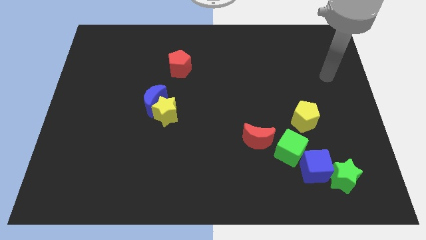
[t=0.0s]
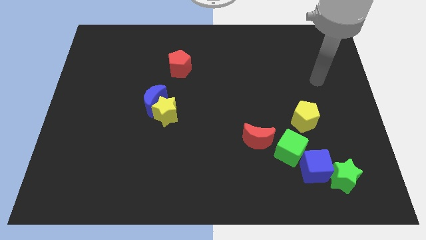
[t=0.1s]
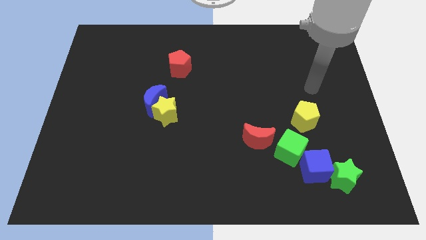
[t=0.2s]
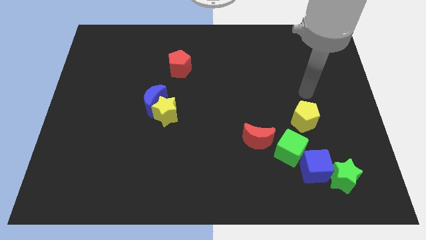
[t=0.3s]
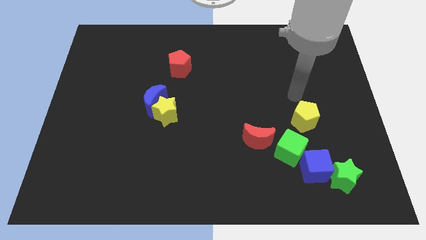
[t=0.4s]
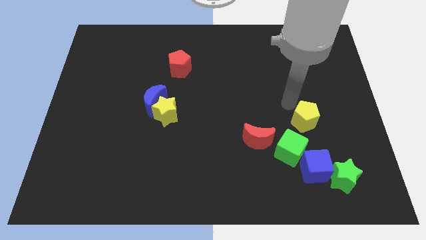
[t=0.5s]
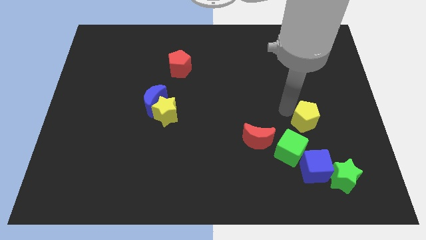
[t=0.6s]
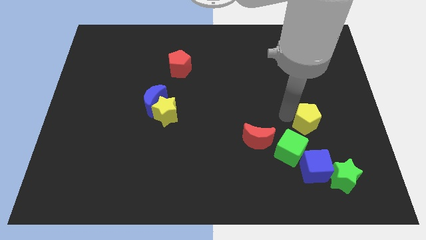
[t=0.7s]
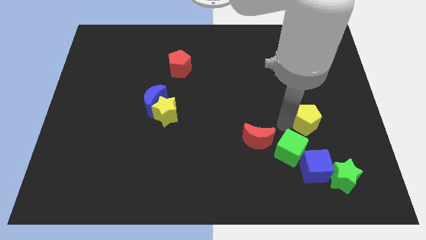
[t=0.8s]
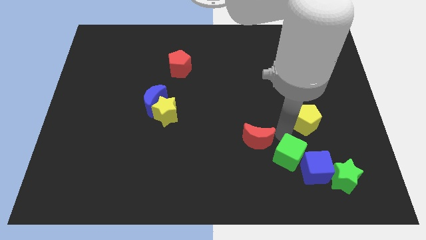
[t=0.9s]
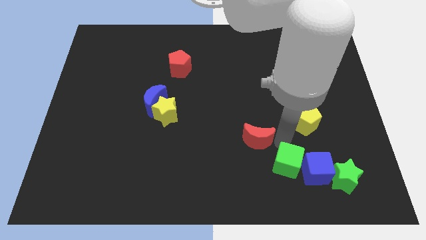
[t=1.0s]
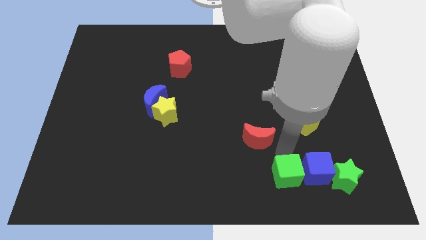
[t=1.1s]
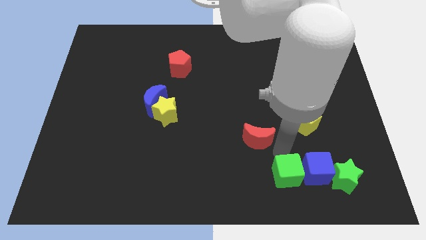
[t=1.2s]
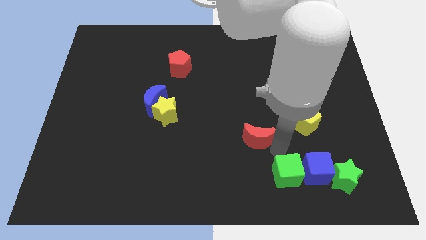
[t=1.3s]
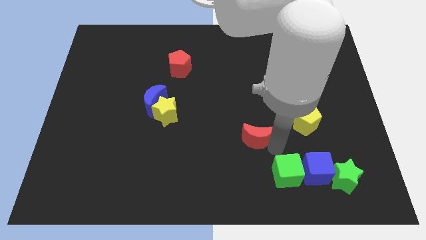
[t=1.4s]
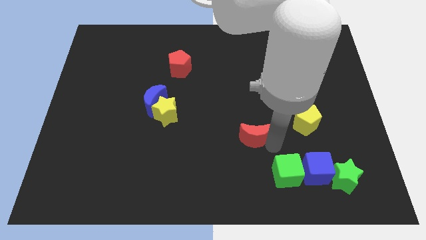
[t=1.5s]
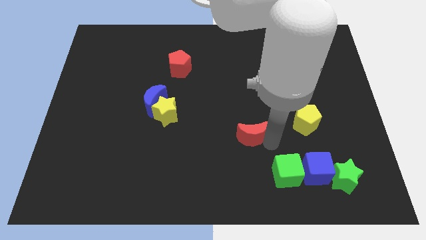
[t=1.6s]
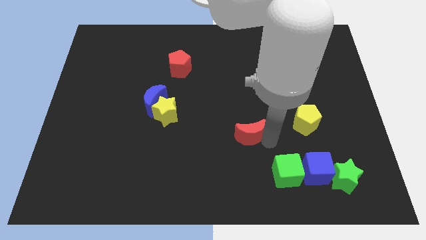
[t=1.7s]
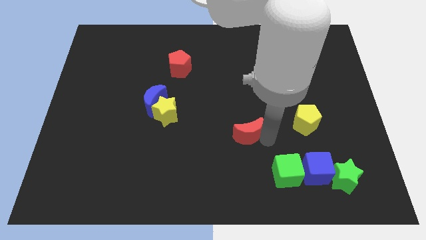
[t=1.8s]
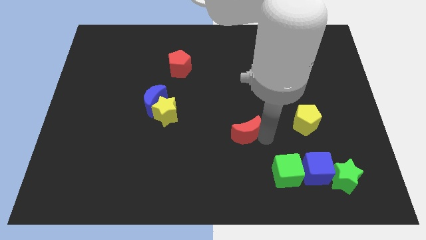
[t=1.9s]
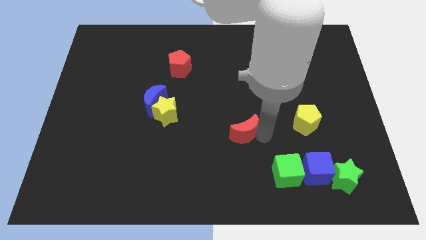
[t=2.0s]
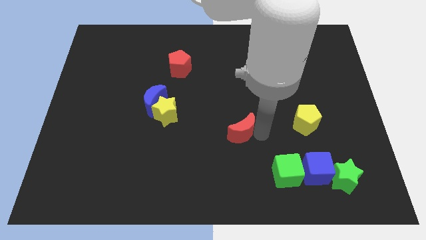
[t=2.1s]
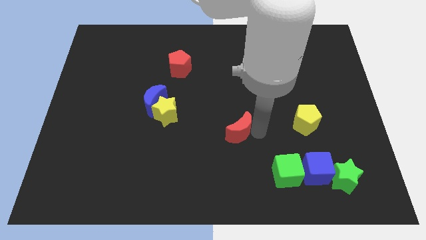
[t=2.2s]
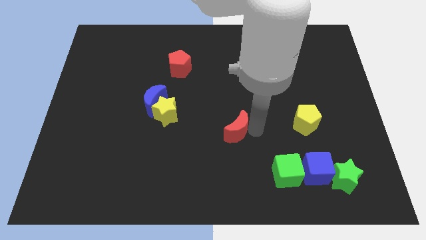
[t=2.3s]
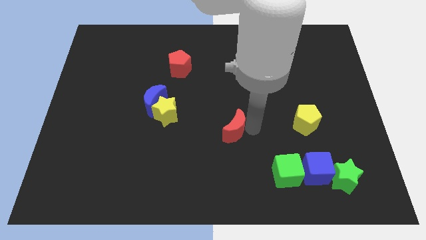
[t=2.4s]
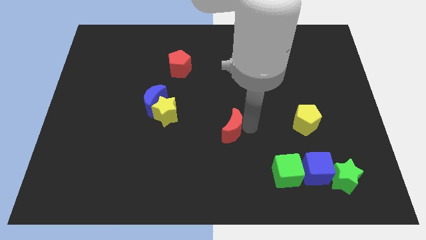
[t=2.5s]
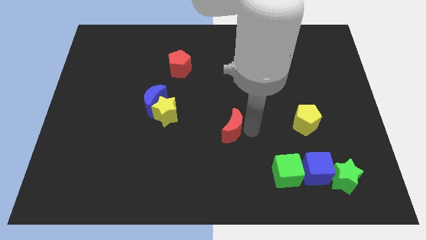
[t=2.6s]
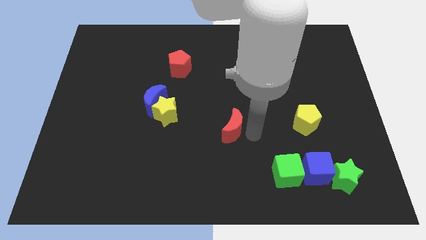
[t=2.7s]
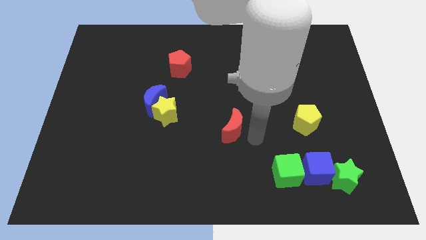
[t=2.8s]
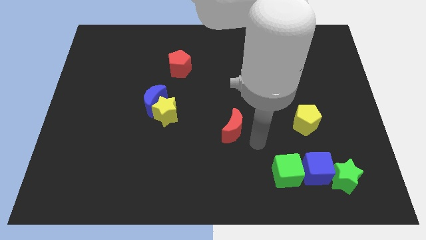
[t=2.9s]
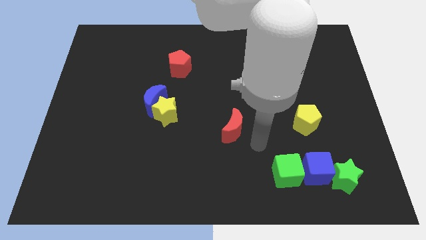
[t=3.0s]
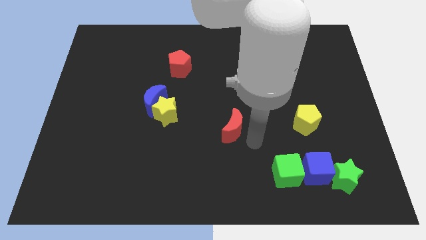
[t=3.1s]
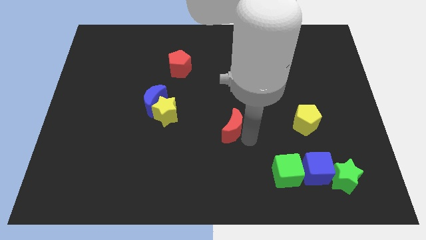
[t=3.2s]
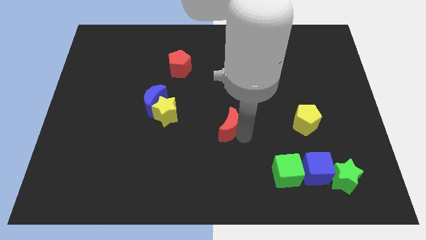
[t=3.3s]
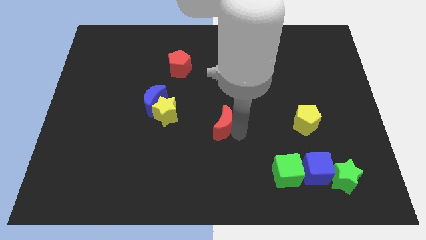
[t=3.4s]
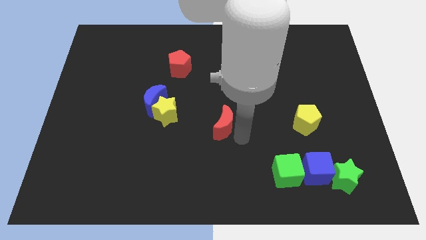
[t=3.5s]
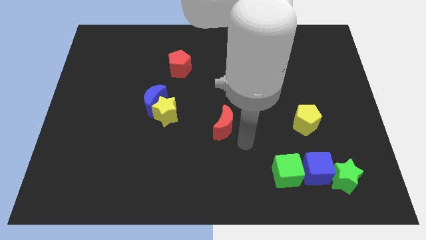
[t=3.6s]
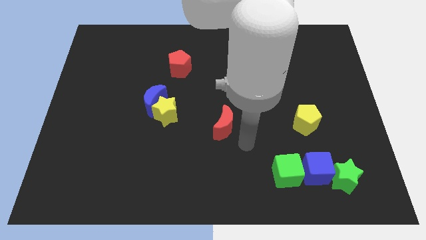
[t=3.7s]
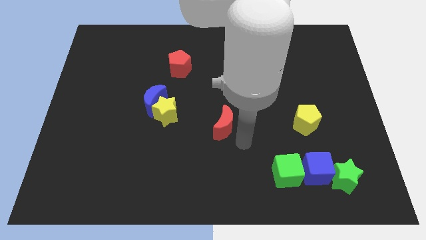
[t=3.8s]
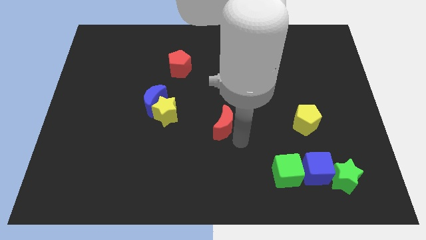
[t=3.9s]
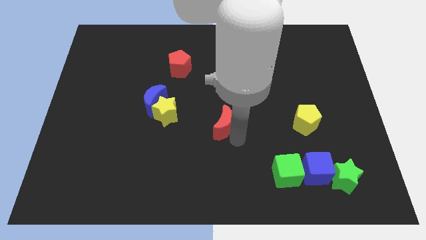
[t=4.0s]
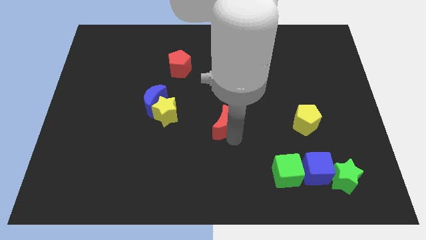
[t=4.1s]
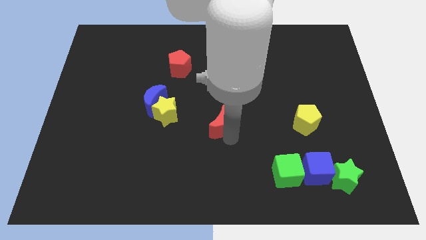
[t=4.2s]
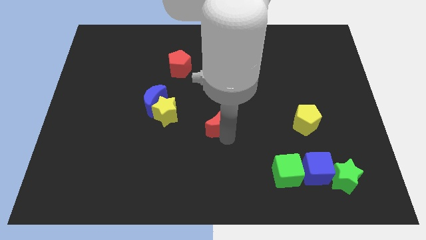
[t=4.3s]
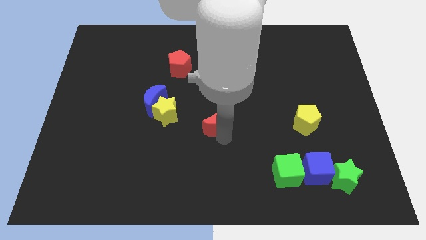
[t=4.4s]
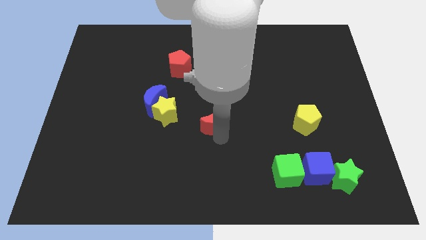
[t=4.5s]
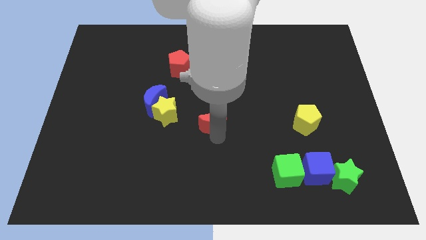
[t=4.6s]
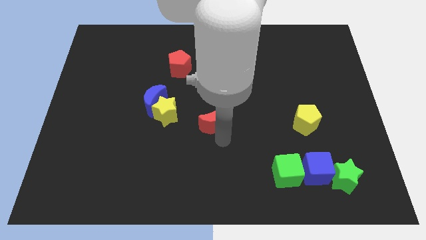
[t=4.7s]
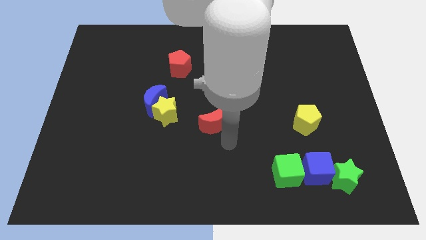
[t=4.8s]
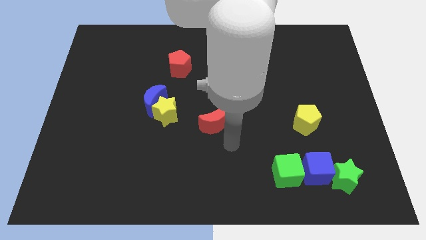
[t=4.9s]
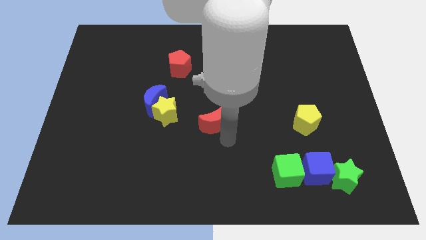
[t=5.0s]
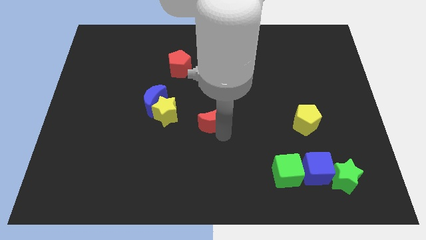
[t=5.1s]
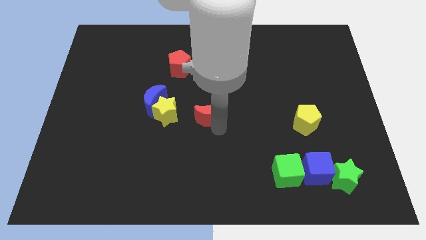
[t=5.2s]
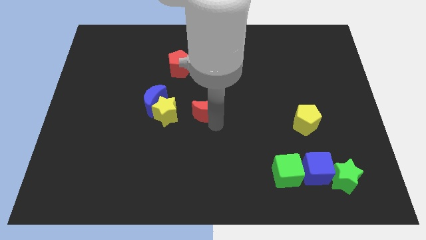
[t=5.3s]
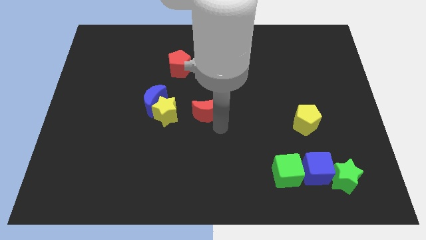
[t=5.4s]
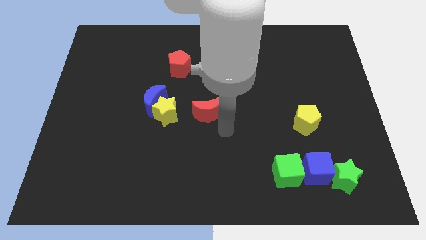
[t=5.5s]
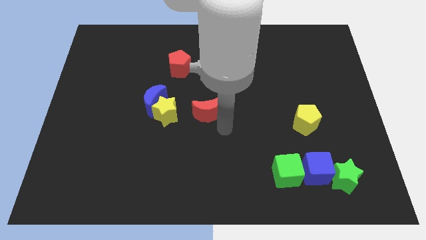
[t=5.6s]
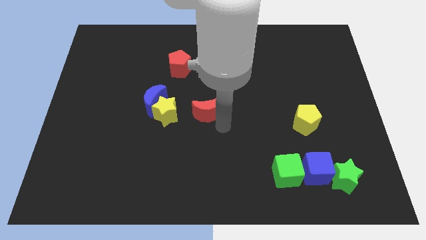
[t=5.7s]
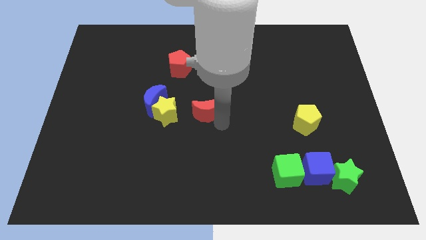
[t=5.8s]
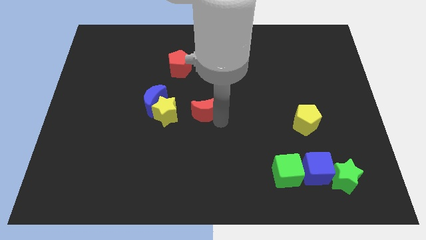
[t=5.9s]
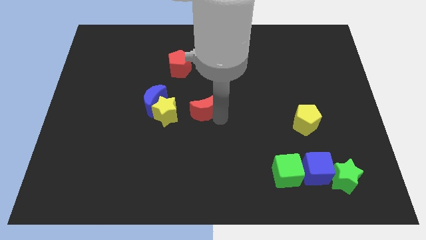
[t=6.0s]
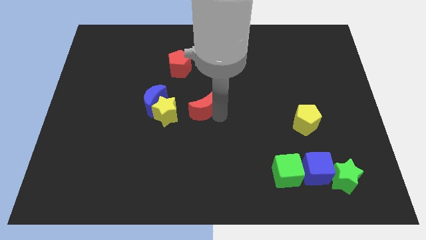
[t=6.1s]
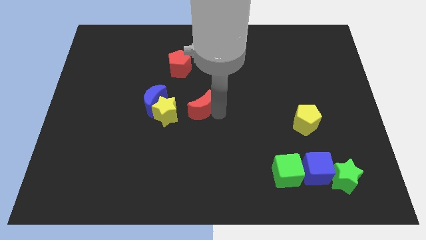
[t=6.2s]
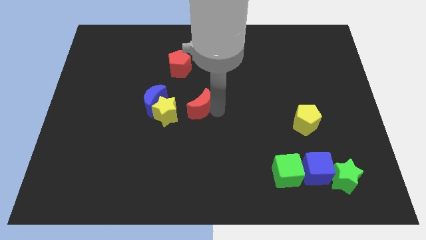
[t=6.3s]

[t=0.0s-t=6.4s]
move the red moon diagonally up and to the right of the yellow star

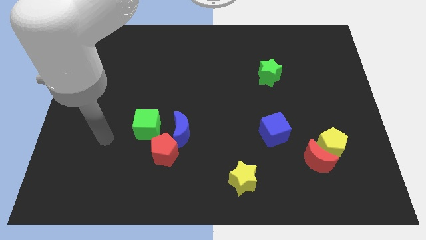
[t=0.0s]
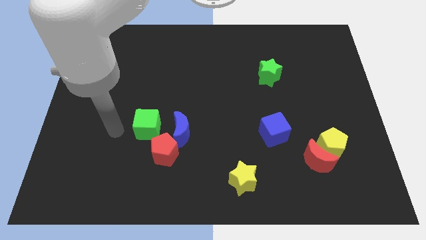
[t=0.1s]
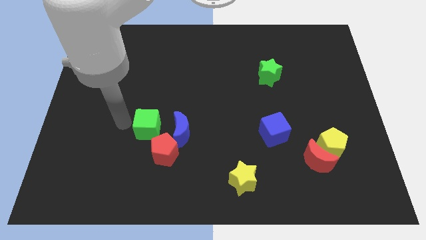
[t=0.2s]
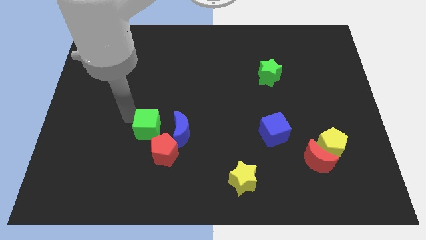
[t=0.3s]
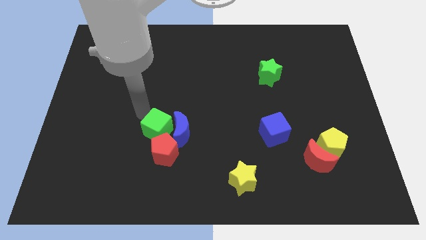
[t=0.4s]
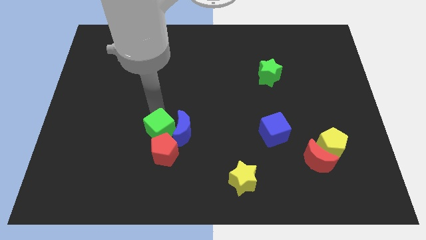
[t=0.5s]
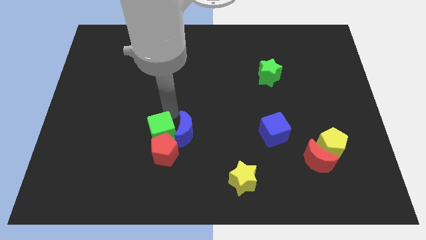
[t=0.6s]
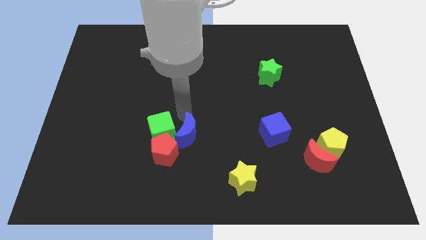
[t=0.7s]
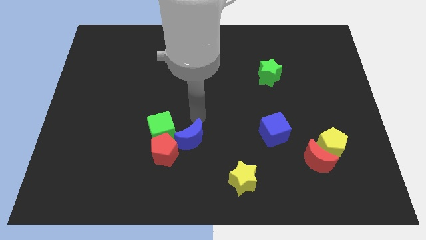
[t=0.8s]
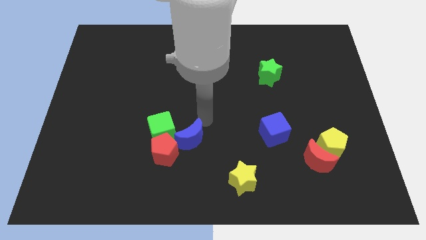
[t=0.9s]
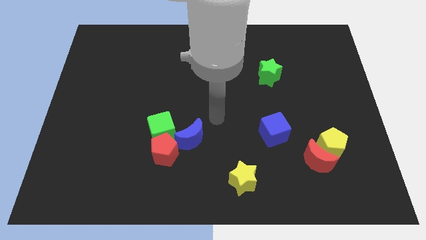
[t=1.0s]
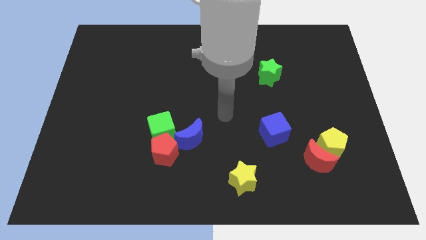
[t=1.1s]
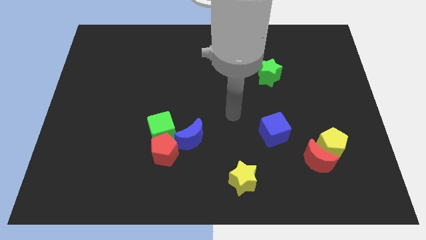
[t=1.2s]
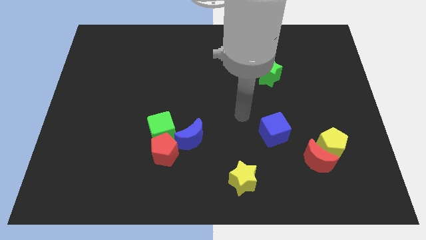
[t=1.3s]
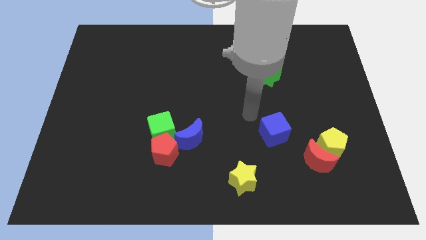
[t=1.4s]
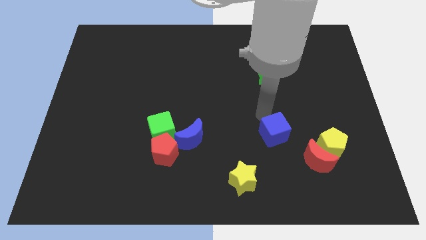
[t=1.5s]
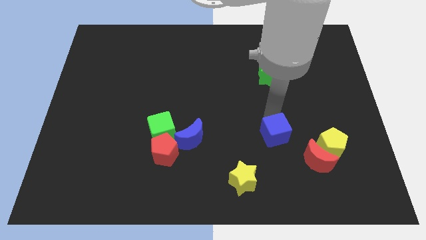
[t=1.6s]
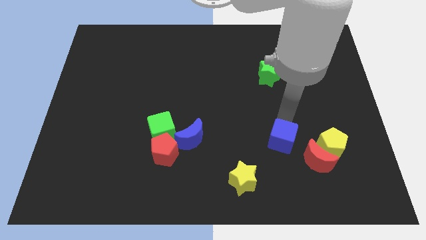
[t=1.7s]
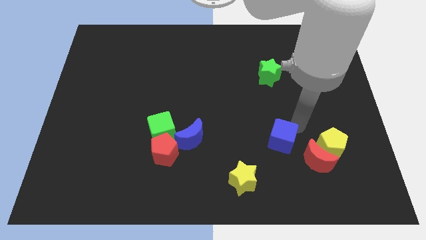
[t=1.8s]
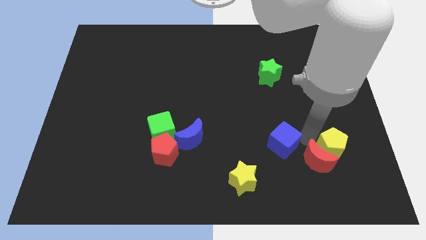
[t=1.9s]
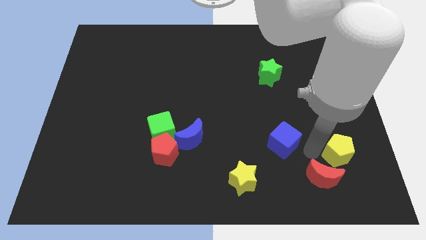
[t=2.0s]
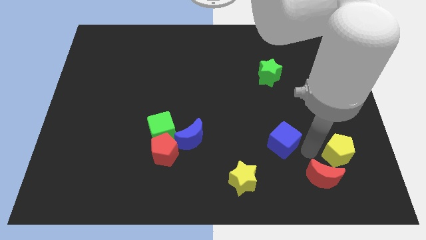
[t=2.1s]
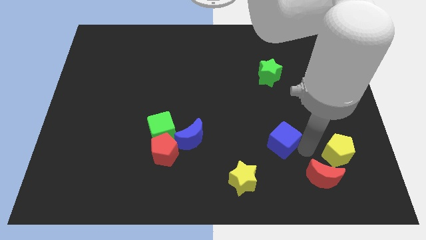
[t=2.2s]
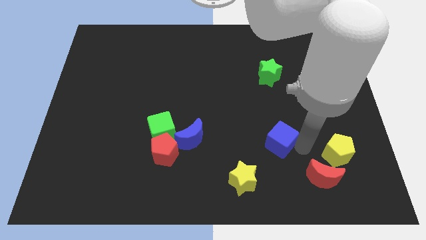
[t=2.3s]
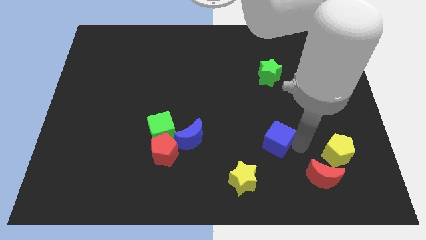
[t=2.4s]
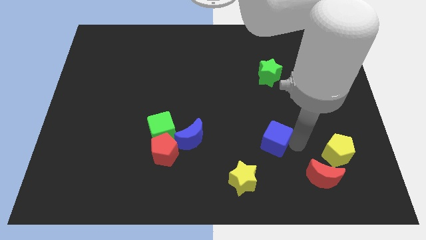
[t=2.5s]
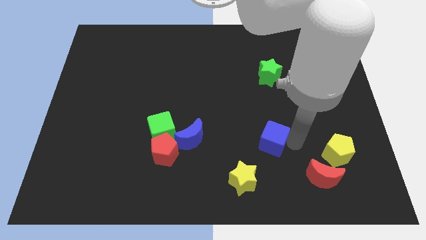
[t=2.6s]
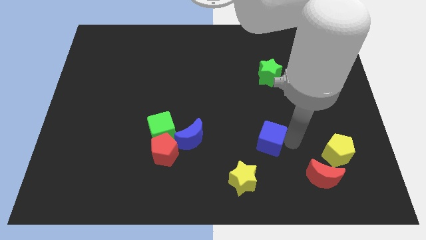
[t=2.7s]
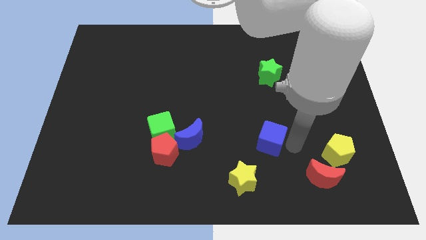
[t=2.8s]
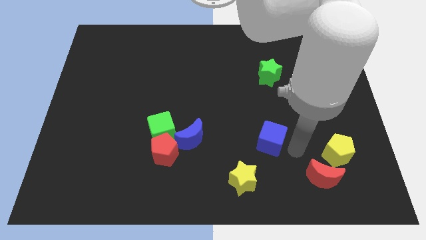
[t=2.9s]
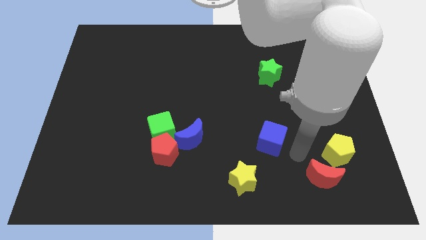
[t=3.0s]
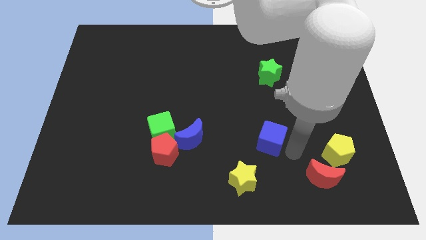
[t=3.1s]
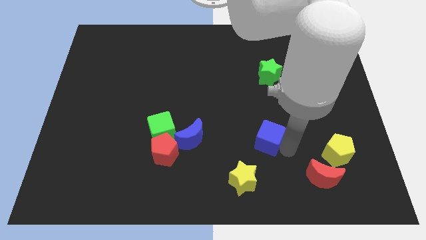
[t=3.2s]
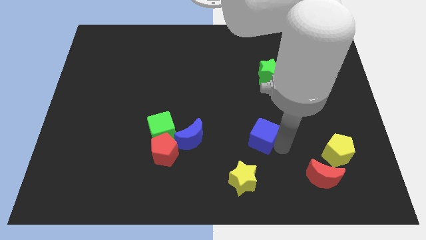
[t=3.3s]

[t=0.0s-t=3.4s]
put the blue cube to the top side of the yellow star
